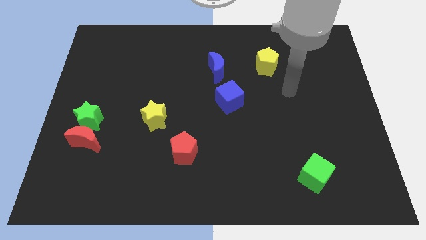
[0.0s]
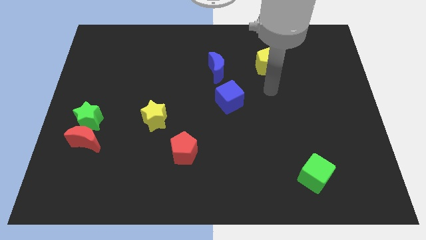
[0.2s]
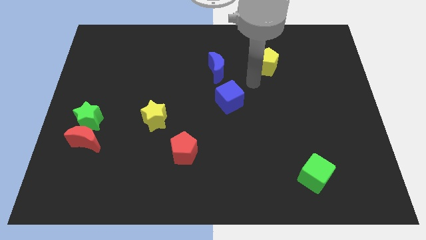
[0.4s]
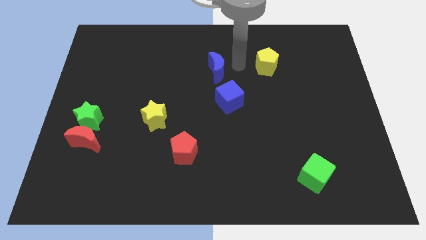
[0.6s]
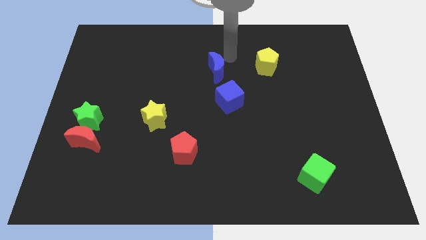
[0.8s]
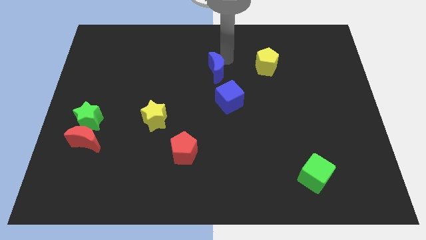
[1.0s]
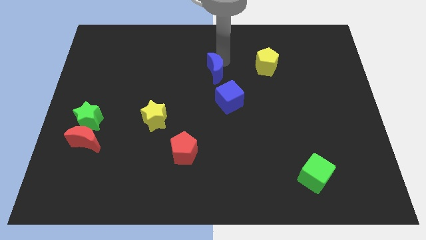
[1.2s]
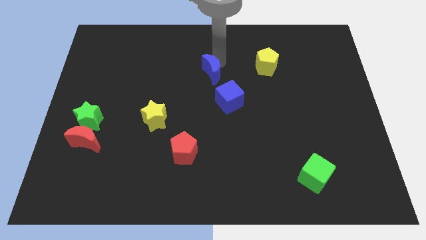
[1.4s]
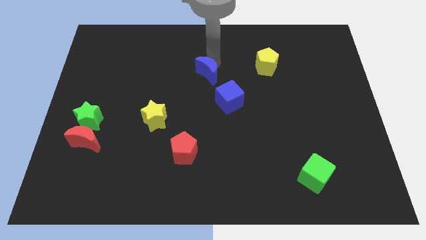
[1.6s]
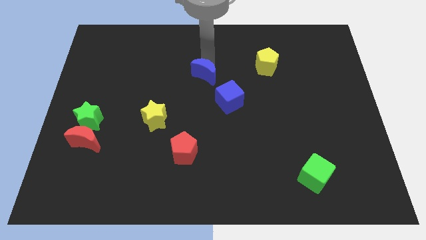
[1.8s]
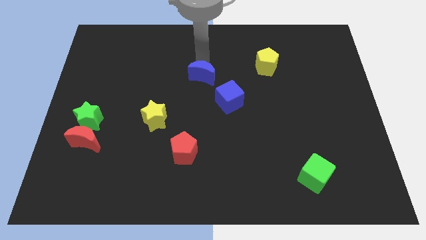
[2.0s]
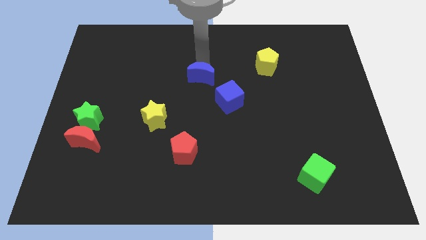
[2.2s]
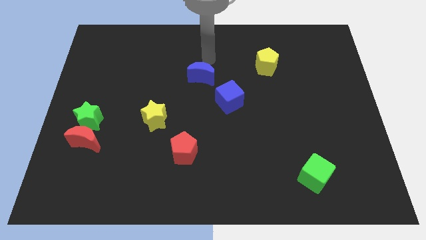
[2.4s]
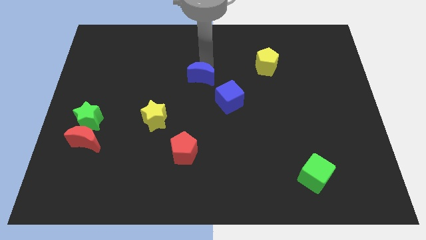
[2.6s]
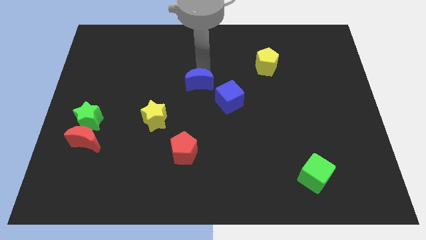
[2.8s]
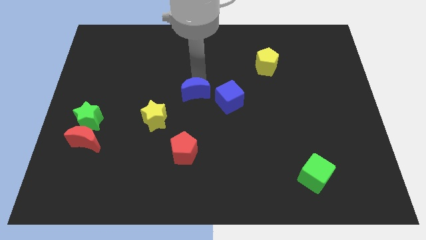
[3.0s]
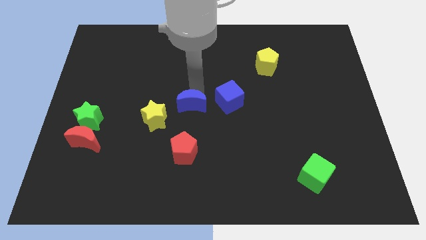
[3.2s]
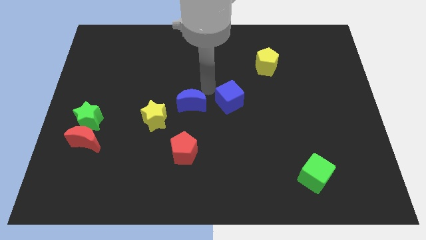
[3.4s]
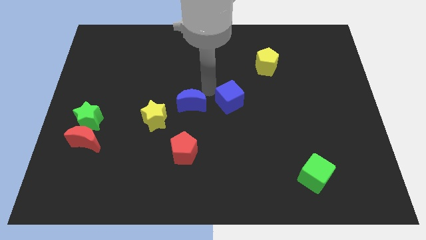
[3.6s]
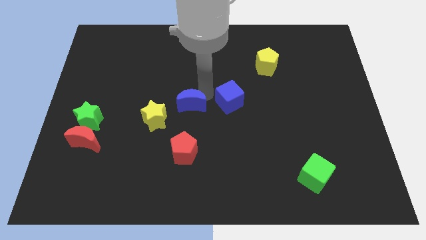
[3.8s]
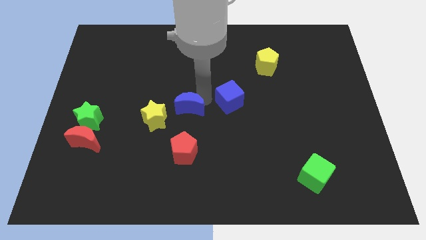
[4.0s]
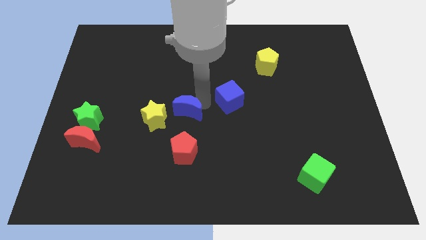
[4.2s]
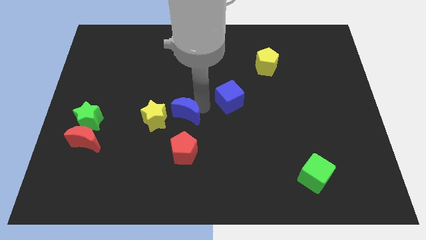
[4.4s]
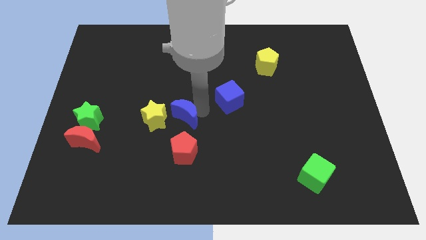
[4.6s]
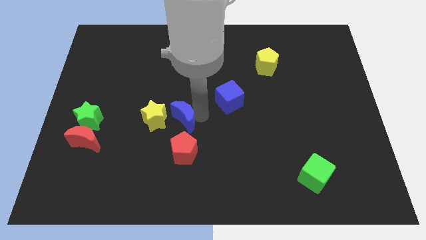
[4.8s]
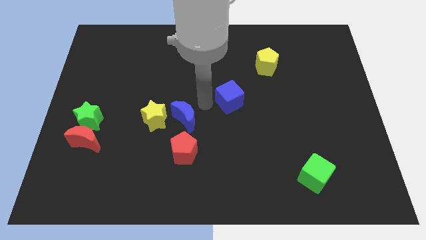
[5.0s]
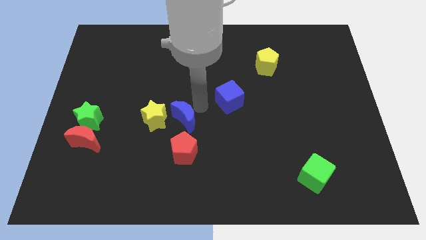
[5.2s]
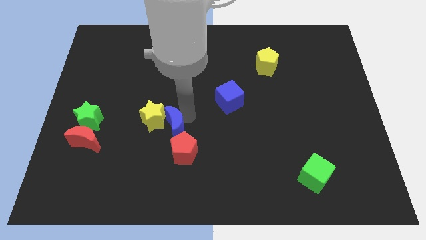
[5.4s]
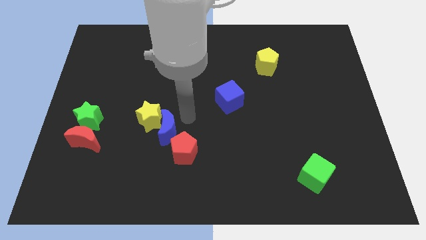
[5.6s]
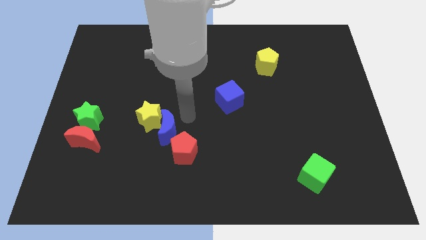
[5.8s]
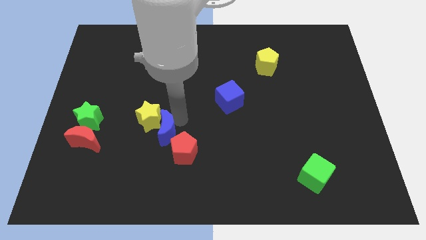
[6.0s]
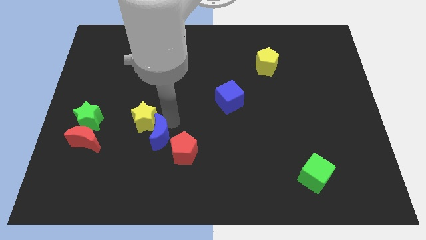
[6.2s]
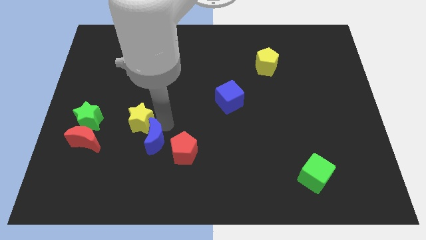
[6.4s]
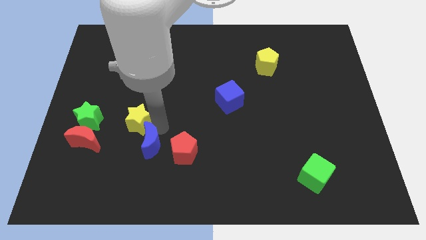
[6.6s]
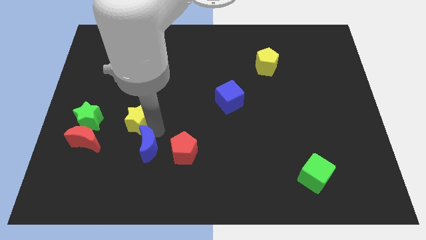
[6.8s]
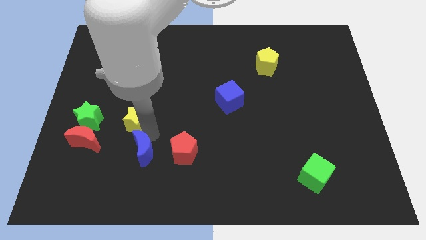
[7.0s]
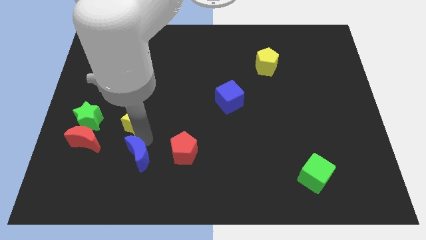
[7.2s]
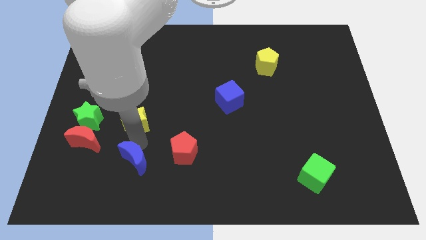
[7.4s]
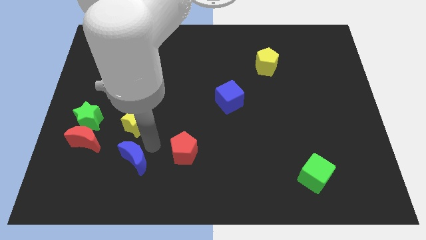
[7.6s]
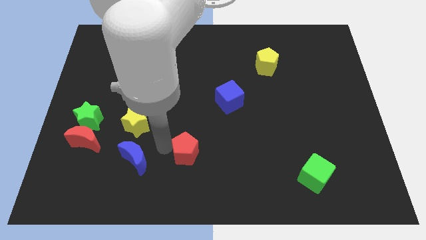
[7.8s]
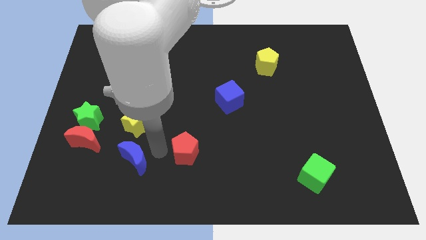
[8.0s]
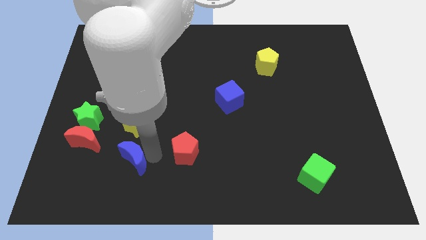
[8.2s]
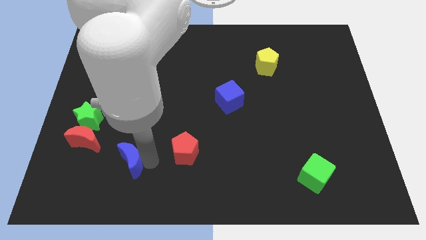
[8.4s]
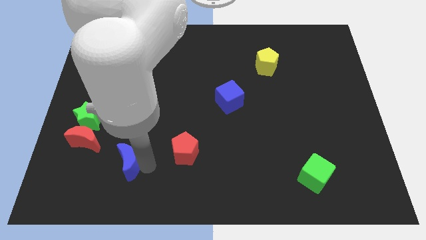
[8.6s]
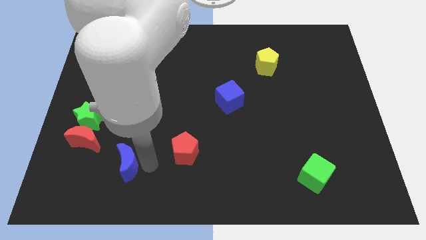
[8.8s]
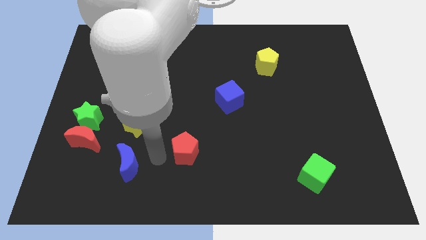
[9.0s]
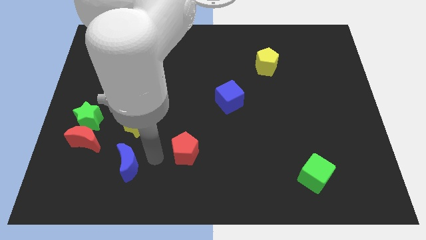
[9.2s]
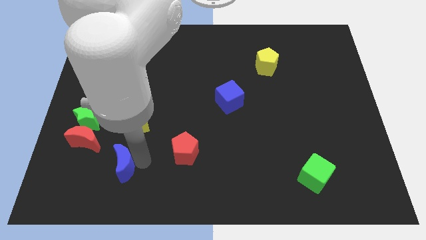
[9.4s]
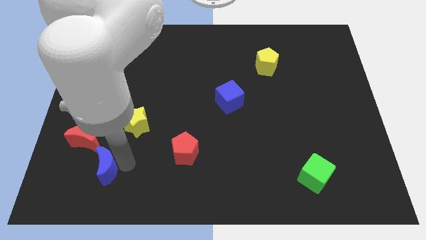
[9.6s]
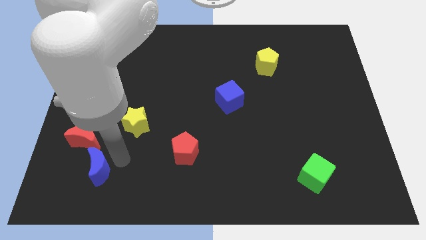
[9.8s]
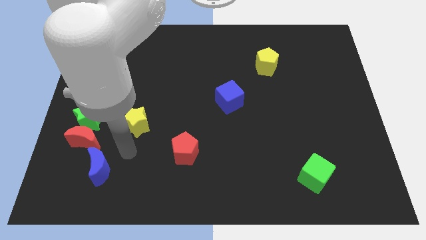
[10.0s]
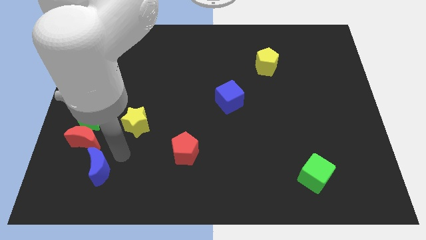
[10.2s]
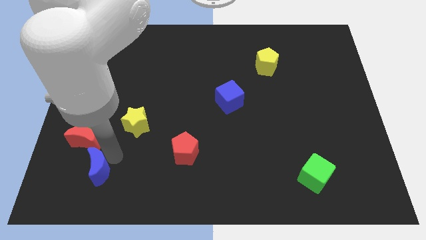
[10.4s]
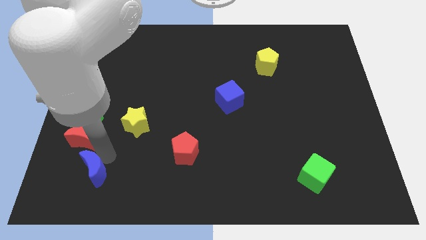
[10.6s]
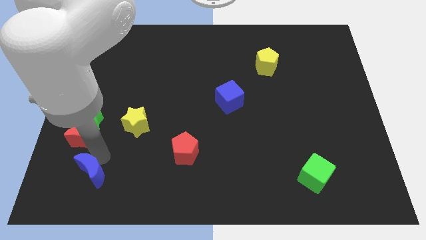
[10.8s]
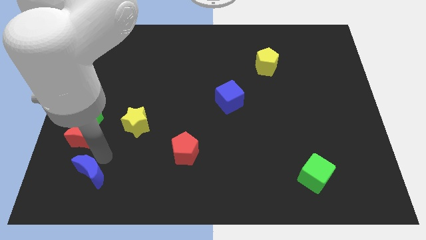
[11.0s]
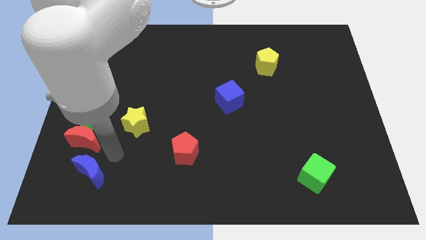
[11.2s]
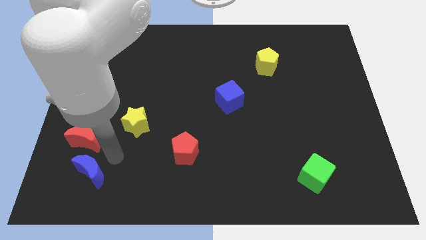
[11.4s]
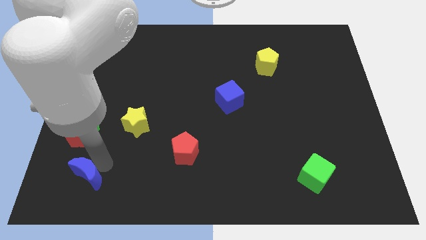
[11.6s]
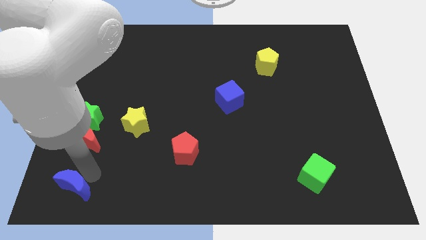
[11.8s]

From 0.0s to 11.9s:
move the blue moon to the bottom left
